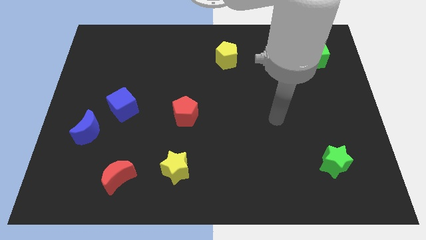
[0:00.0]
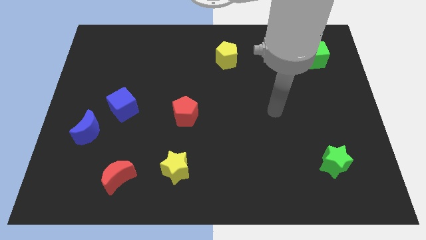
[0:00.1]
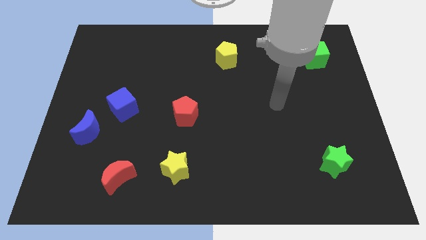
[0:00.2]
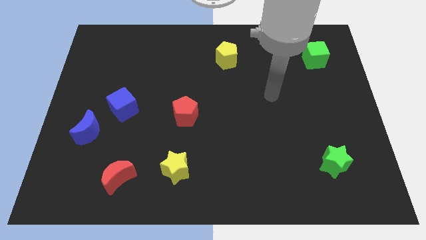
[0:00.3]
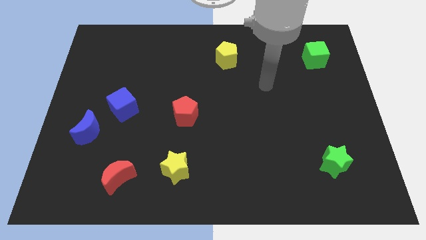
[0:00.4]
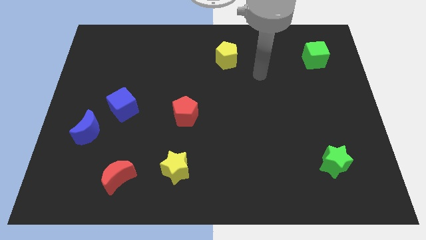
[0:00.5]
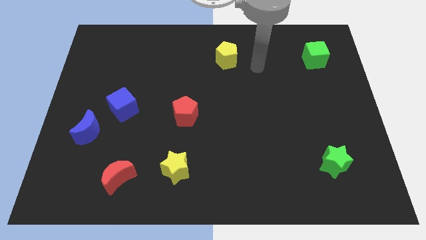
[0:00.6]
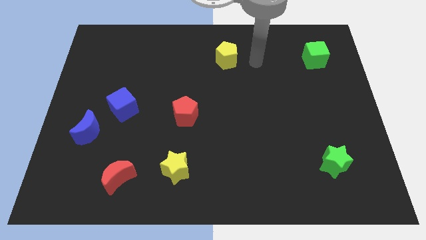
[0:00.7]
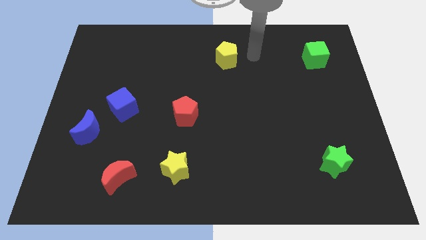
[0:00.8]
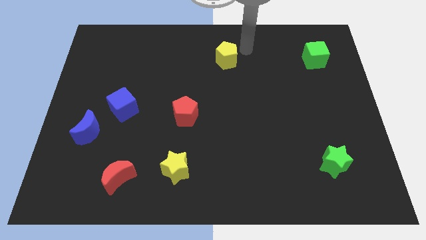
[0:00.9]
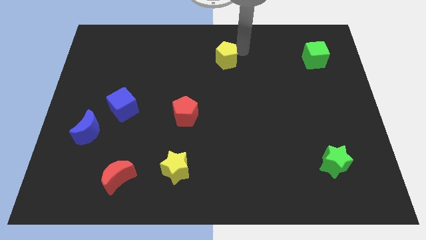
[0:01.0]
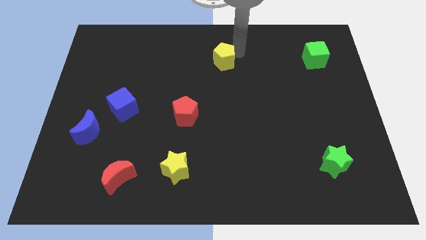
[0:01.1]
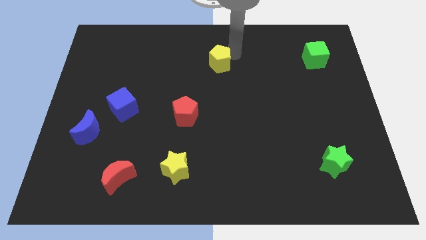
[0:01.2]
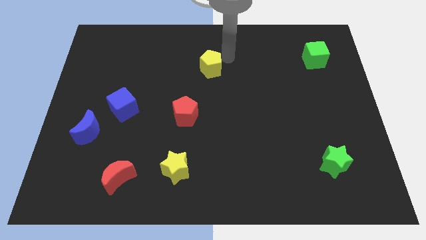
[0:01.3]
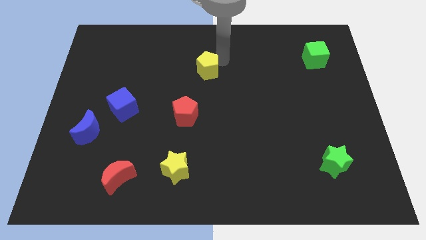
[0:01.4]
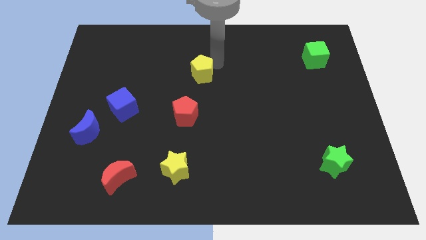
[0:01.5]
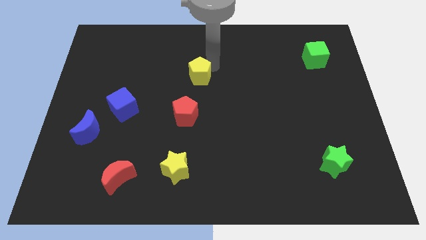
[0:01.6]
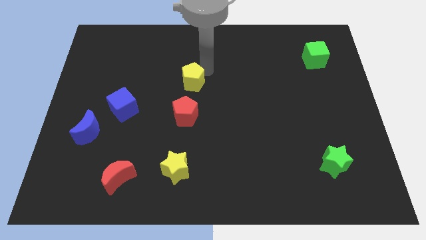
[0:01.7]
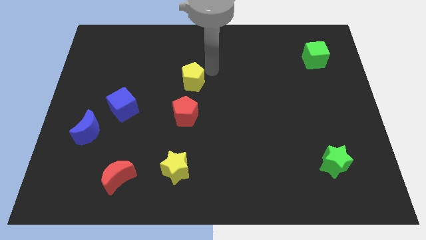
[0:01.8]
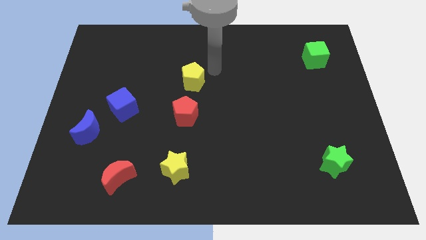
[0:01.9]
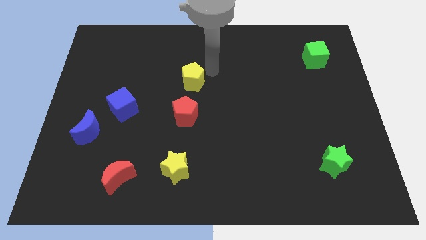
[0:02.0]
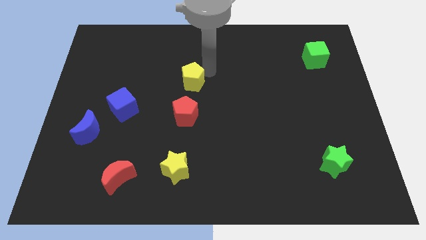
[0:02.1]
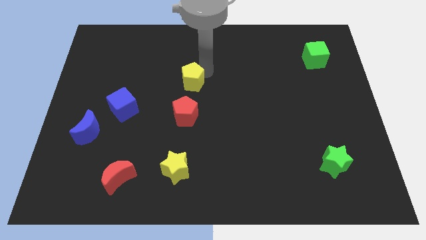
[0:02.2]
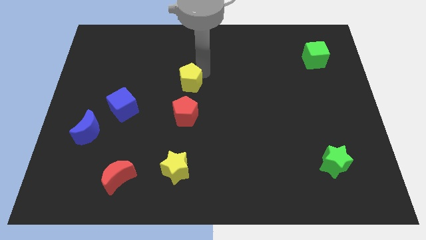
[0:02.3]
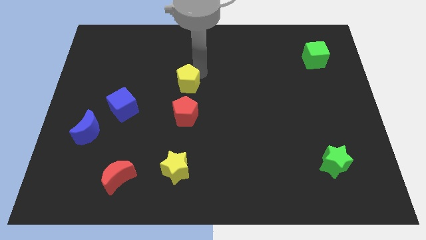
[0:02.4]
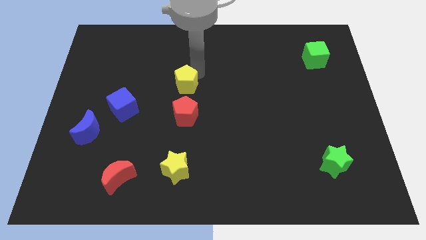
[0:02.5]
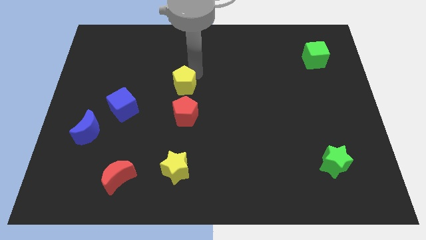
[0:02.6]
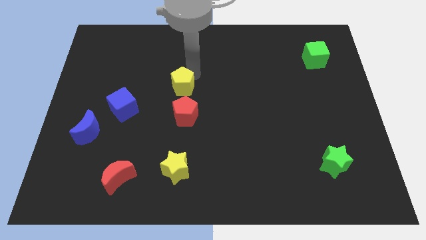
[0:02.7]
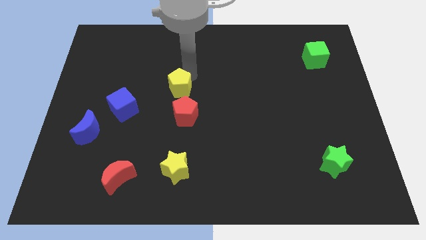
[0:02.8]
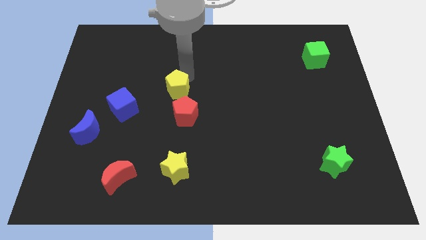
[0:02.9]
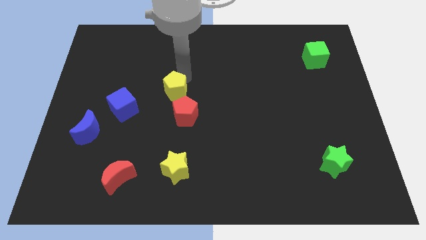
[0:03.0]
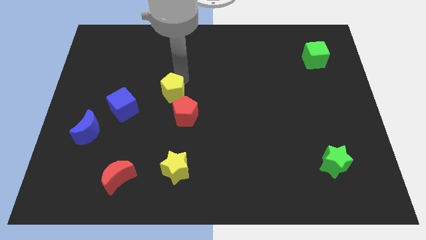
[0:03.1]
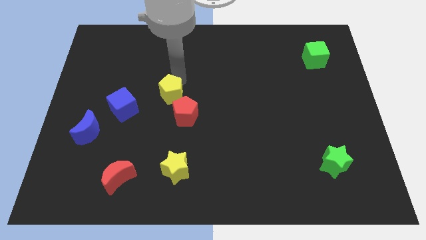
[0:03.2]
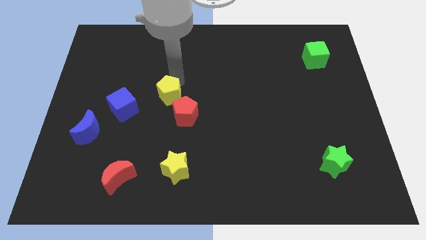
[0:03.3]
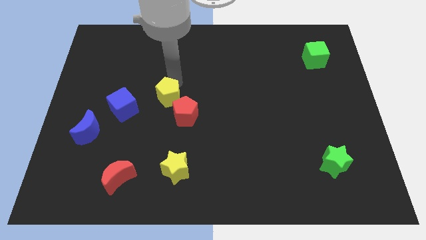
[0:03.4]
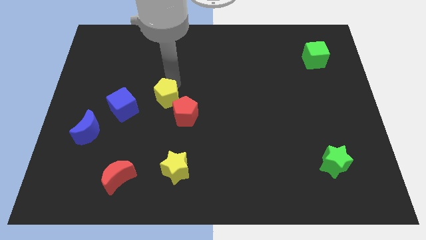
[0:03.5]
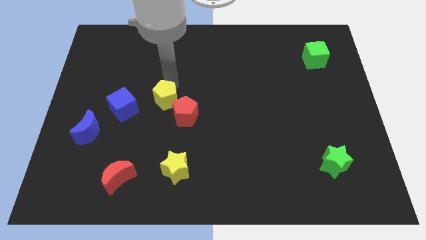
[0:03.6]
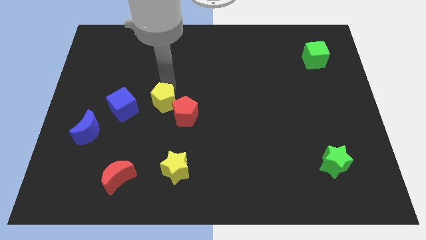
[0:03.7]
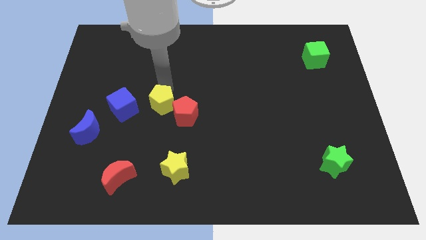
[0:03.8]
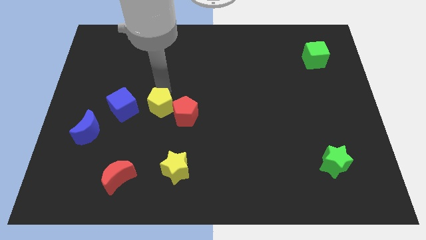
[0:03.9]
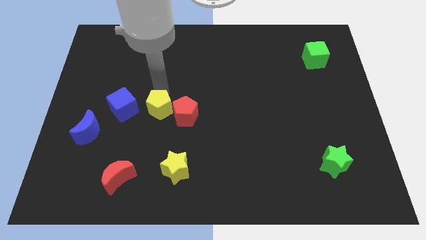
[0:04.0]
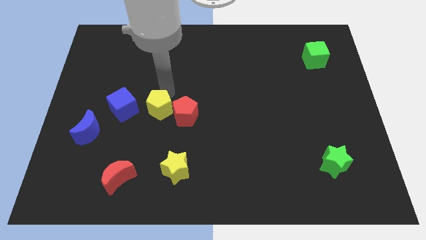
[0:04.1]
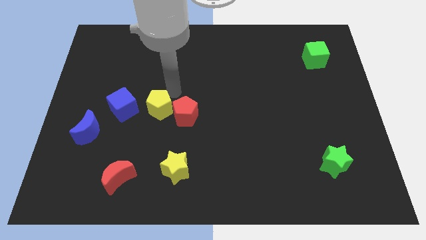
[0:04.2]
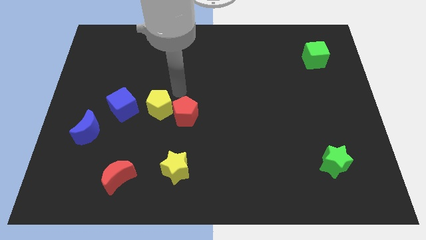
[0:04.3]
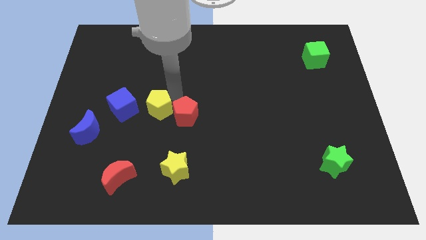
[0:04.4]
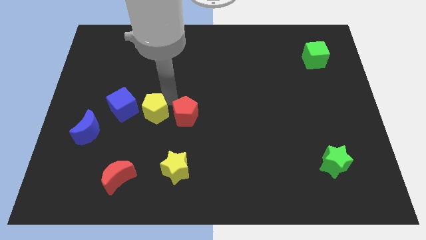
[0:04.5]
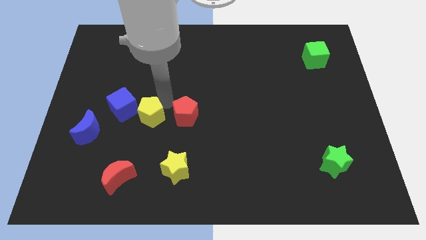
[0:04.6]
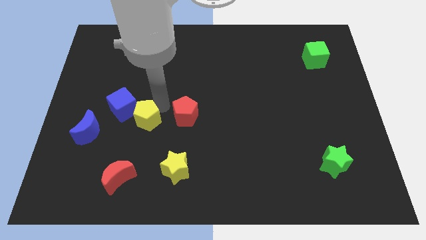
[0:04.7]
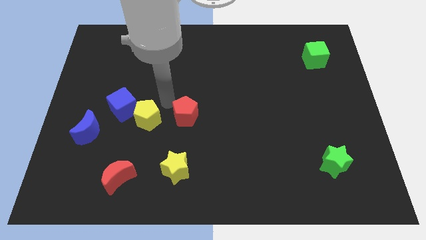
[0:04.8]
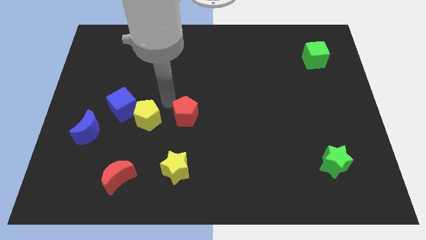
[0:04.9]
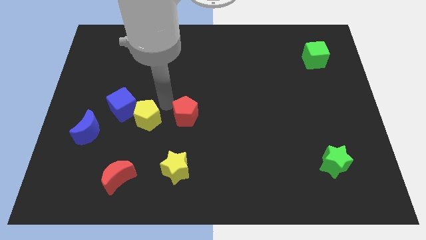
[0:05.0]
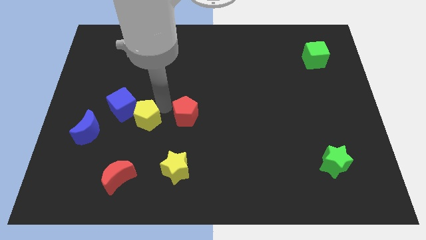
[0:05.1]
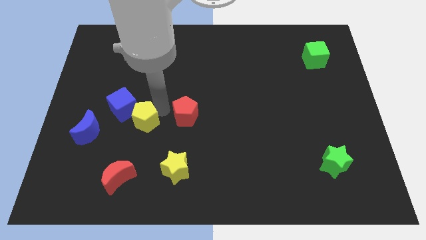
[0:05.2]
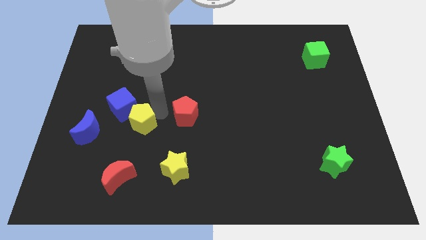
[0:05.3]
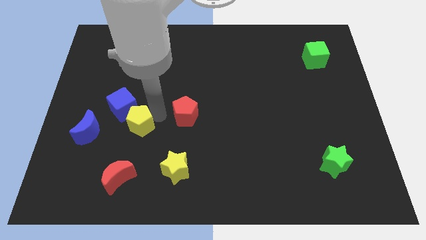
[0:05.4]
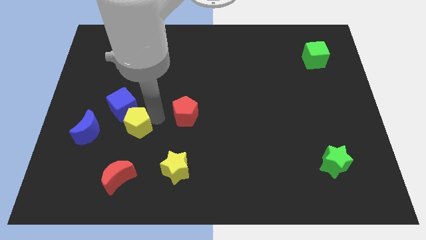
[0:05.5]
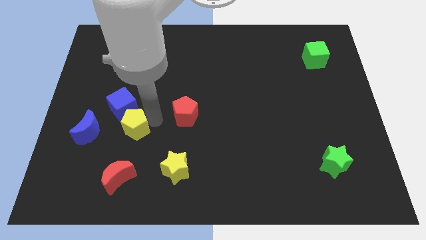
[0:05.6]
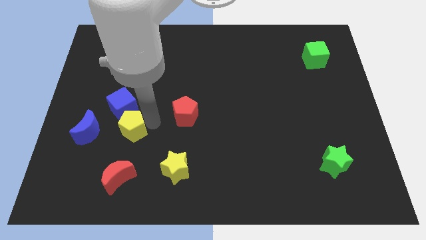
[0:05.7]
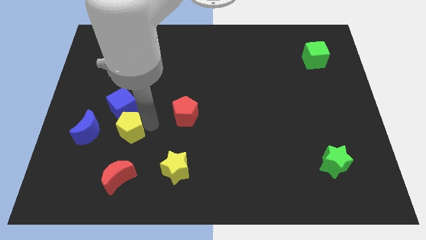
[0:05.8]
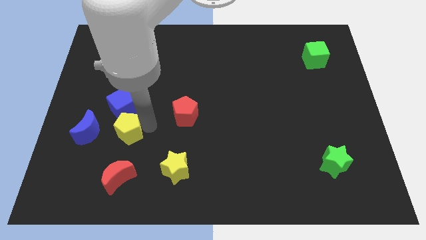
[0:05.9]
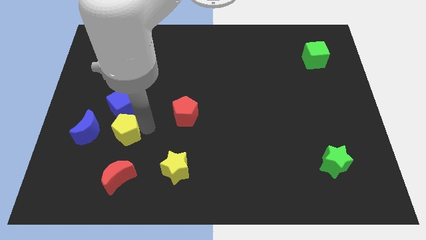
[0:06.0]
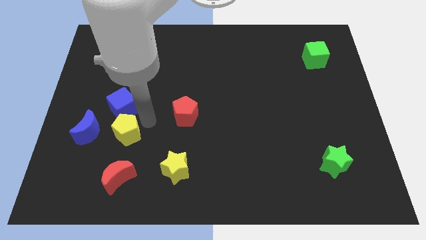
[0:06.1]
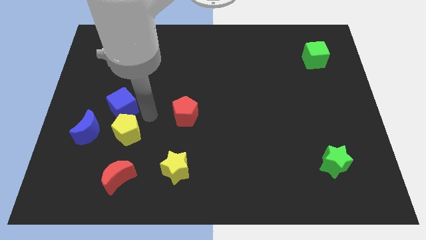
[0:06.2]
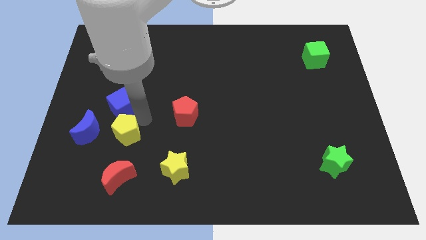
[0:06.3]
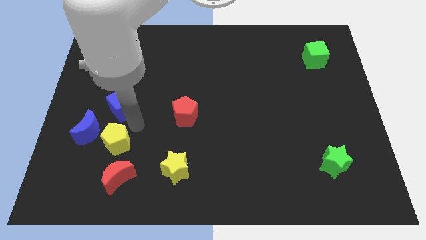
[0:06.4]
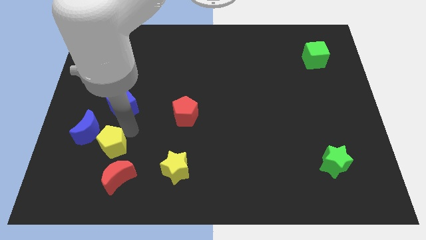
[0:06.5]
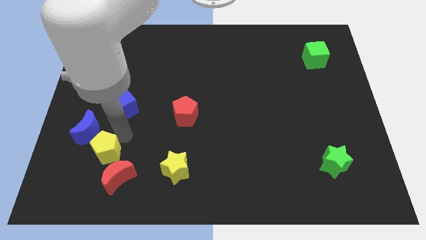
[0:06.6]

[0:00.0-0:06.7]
push the yellow pentagon below the blue moon

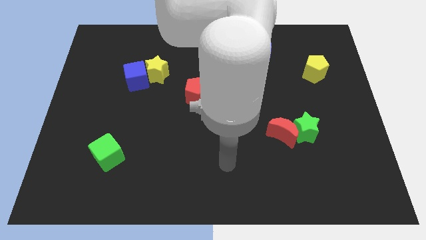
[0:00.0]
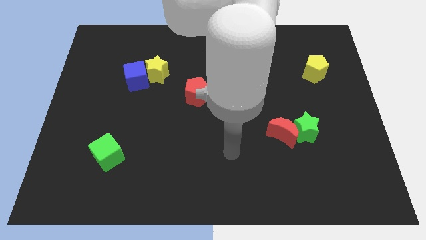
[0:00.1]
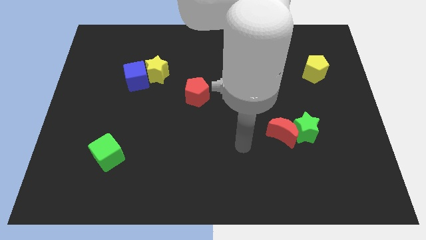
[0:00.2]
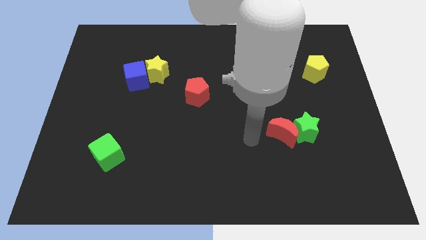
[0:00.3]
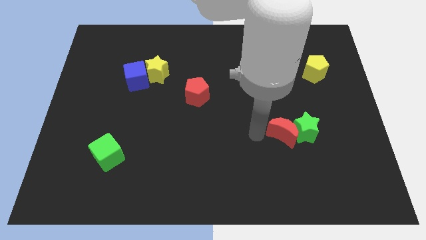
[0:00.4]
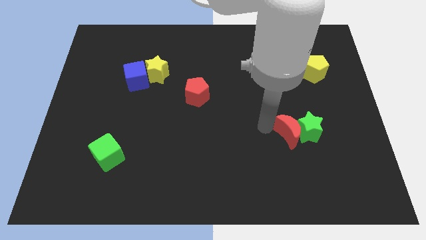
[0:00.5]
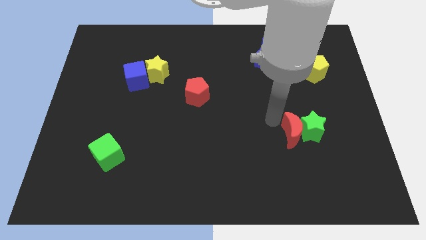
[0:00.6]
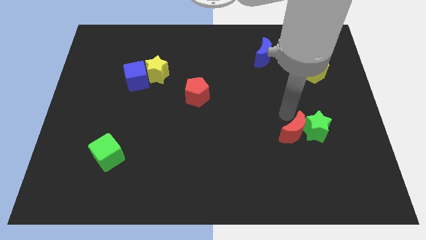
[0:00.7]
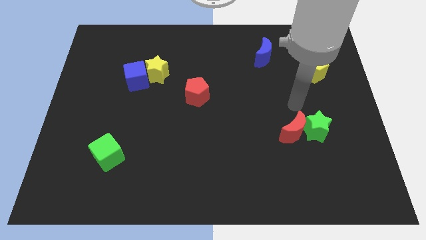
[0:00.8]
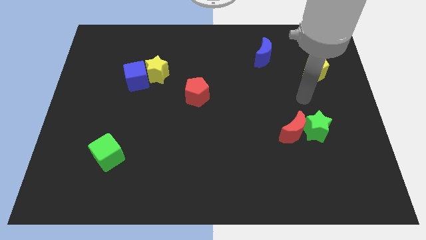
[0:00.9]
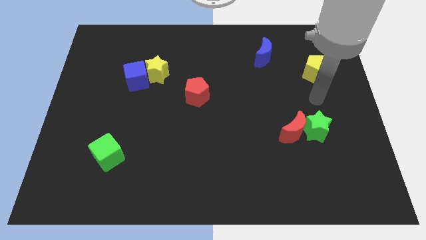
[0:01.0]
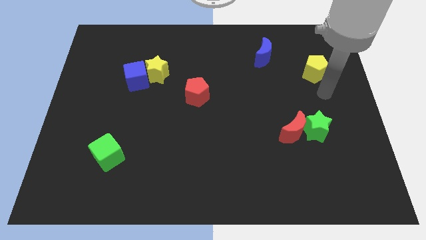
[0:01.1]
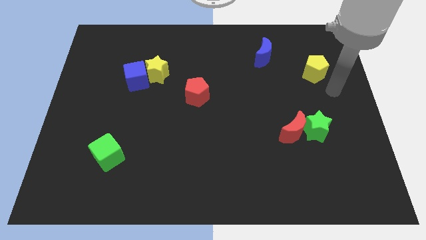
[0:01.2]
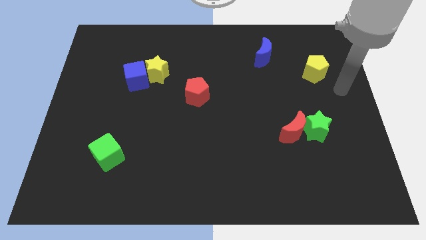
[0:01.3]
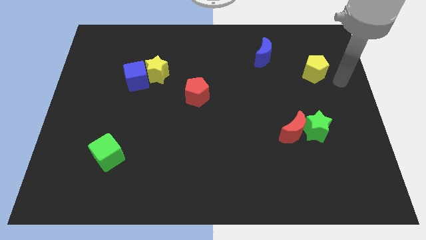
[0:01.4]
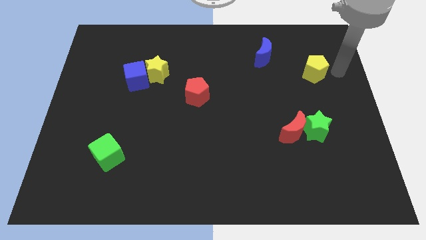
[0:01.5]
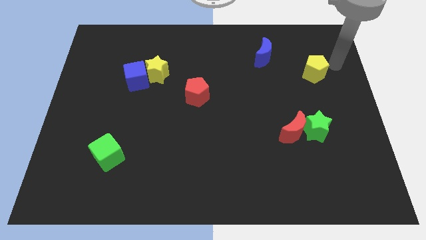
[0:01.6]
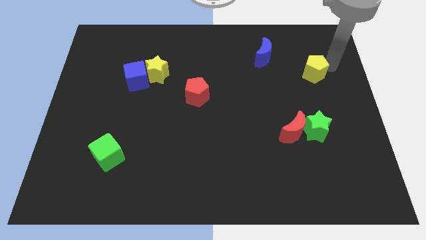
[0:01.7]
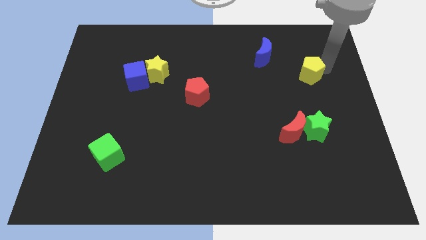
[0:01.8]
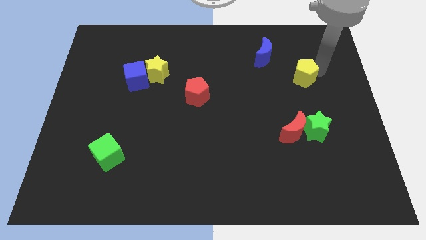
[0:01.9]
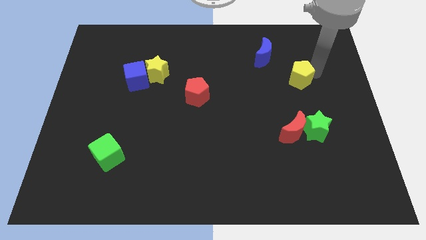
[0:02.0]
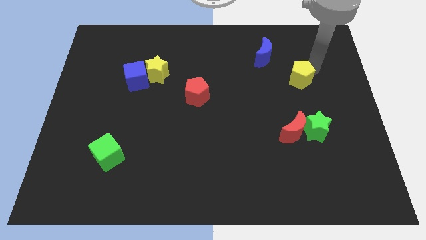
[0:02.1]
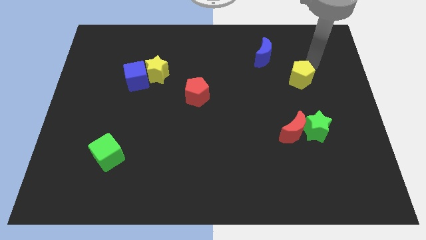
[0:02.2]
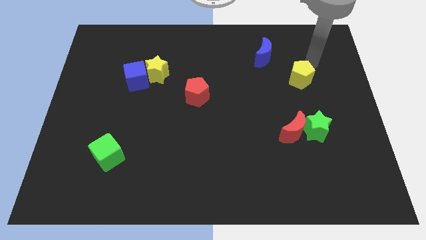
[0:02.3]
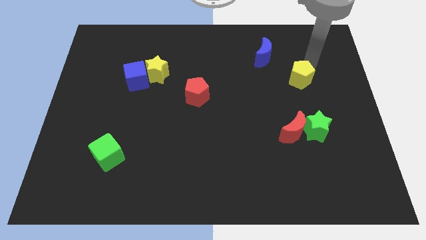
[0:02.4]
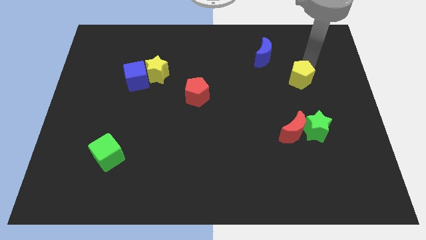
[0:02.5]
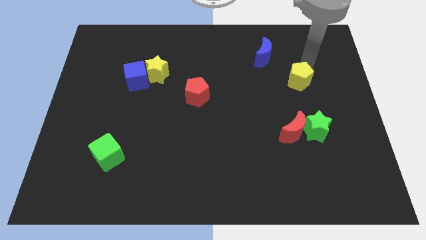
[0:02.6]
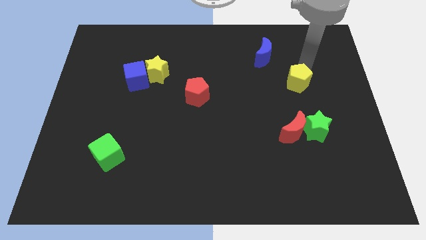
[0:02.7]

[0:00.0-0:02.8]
put the yellow pentagon above the red moon
